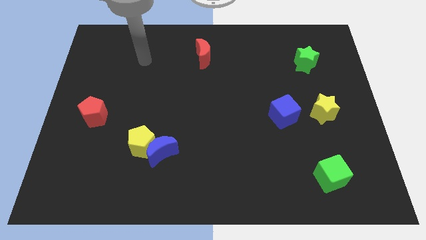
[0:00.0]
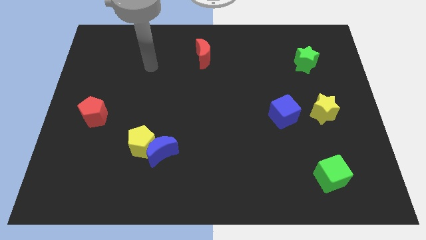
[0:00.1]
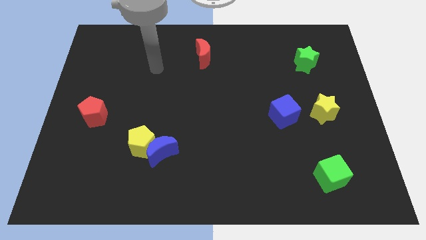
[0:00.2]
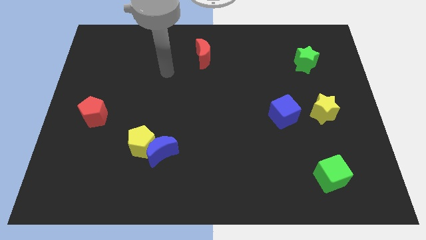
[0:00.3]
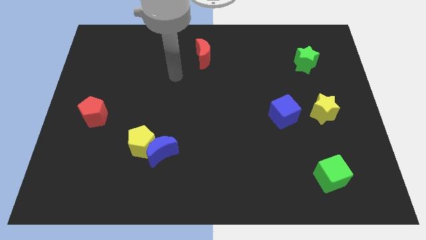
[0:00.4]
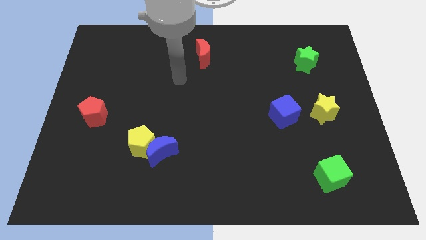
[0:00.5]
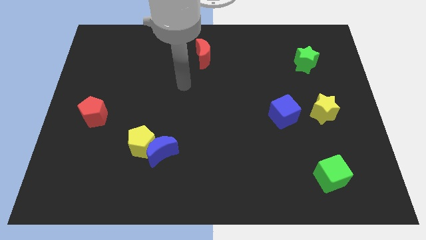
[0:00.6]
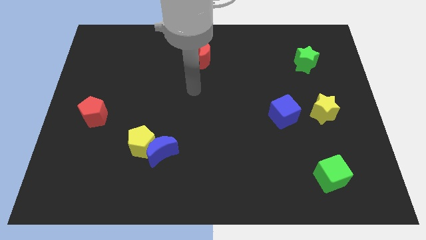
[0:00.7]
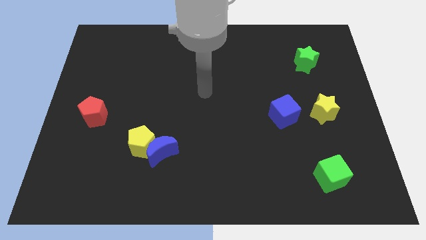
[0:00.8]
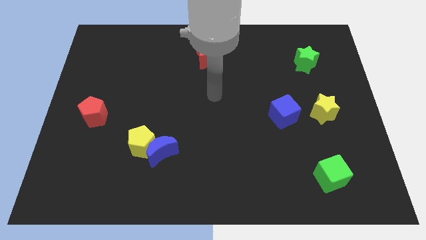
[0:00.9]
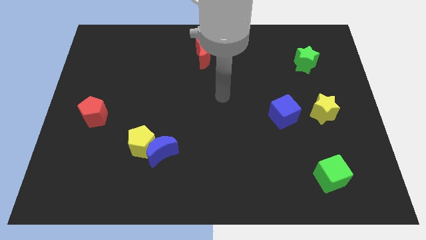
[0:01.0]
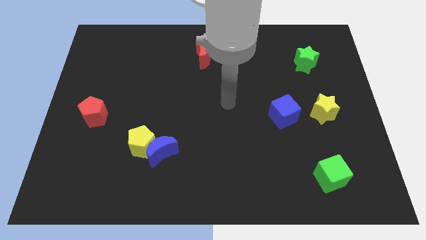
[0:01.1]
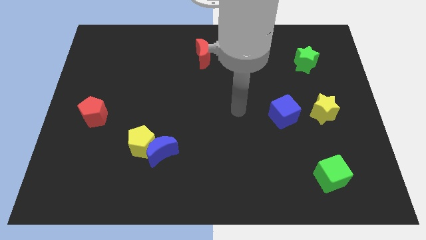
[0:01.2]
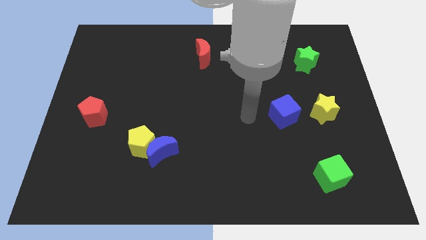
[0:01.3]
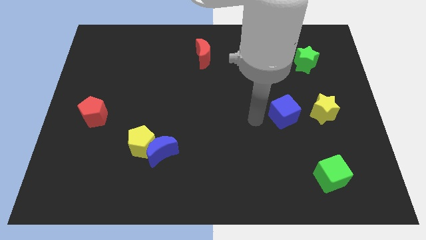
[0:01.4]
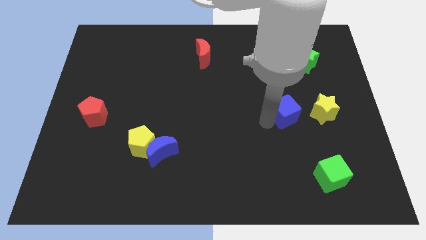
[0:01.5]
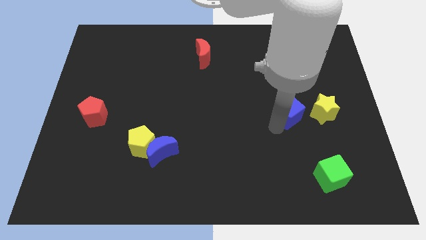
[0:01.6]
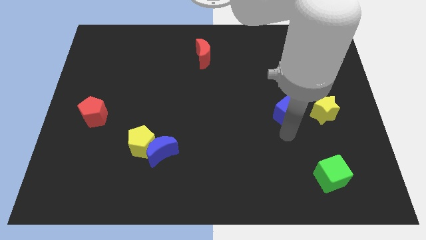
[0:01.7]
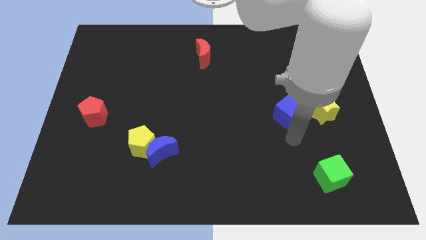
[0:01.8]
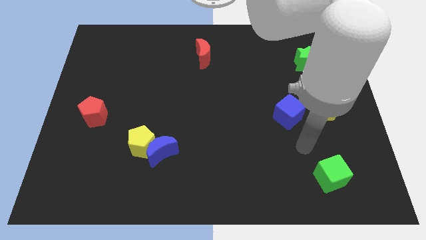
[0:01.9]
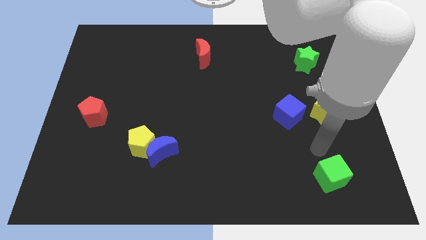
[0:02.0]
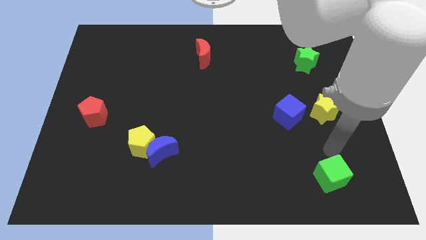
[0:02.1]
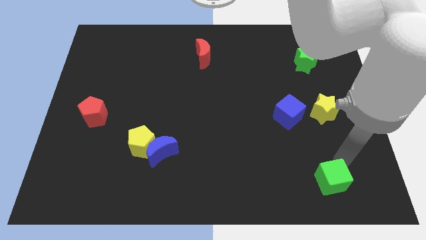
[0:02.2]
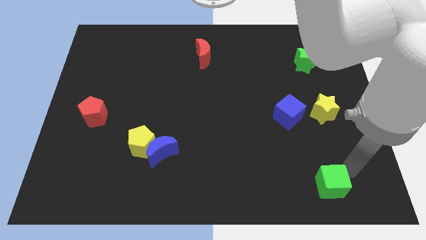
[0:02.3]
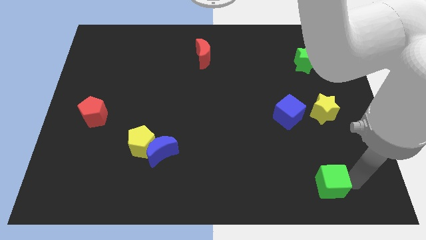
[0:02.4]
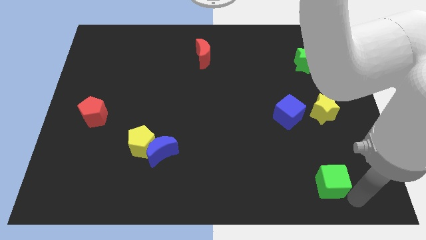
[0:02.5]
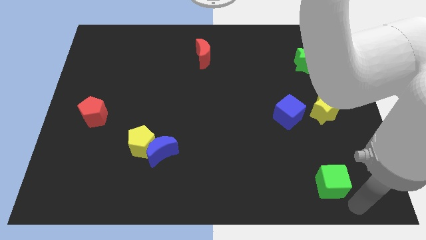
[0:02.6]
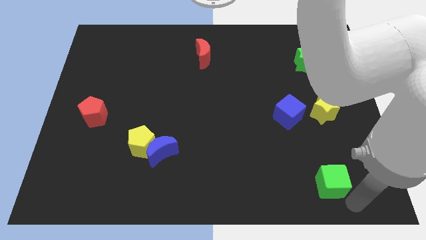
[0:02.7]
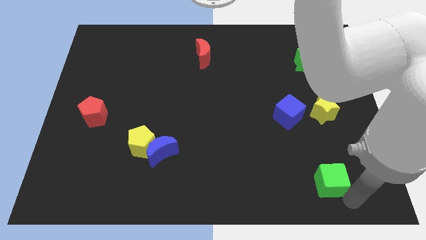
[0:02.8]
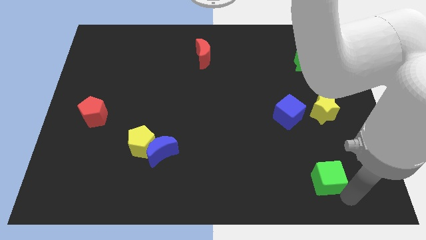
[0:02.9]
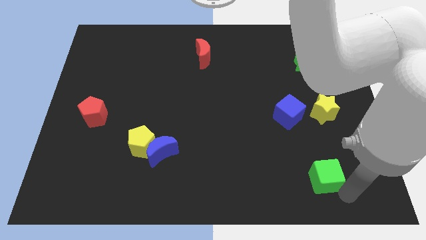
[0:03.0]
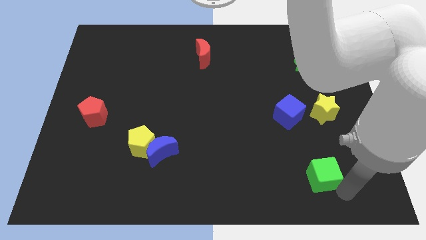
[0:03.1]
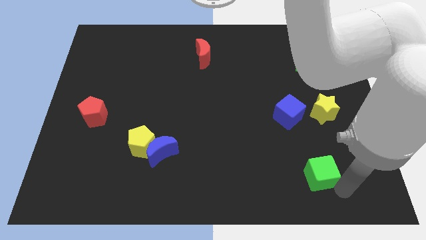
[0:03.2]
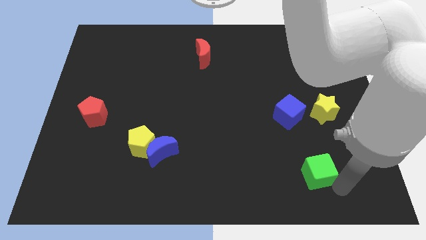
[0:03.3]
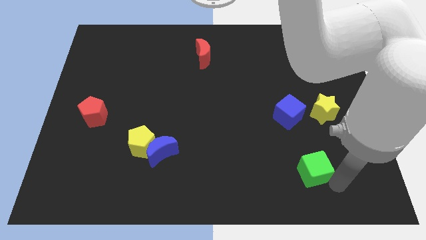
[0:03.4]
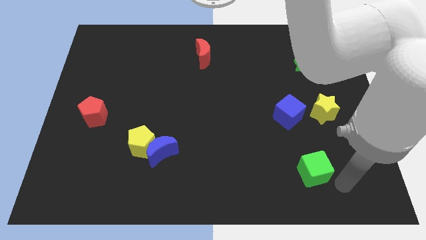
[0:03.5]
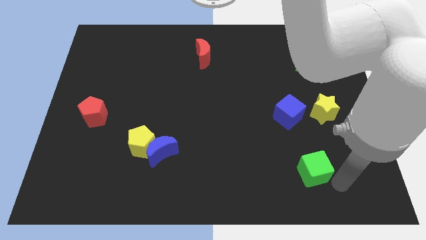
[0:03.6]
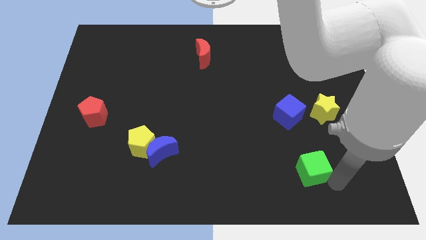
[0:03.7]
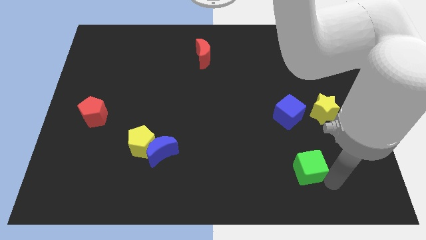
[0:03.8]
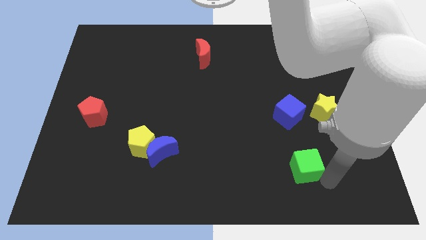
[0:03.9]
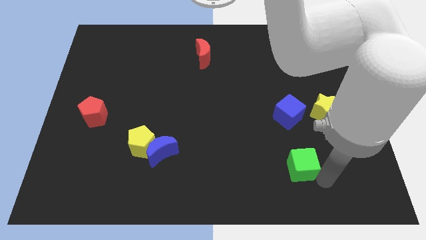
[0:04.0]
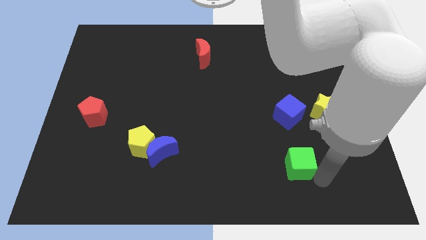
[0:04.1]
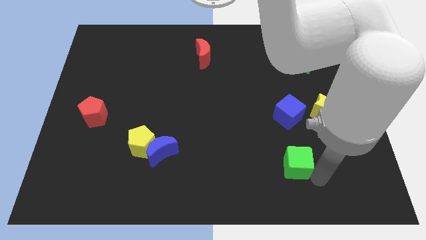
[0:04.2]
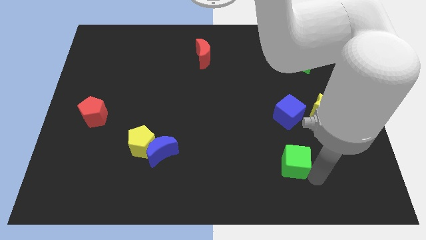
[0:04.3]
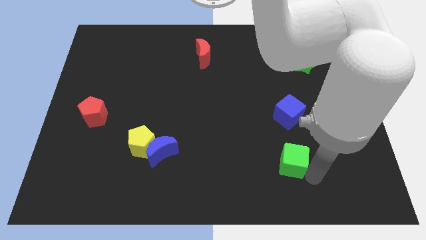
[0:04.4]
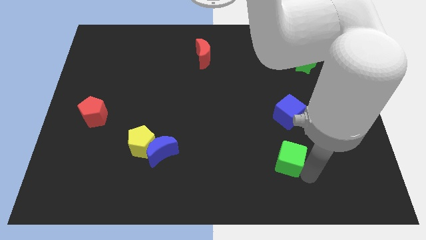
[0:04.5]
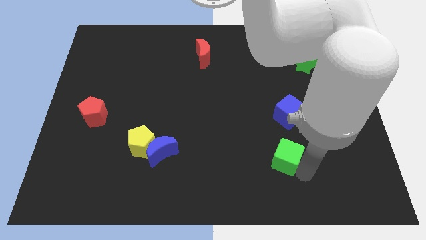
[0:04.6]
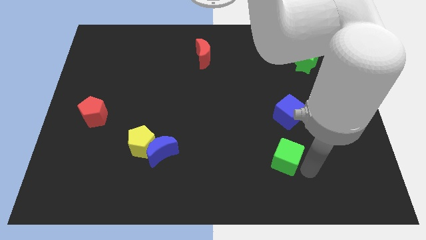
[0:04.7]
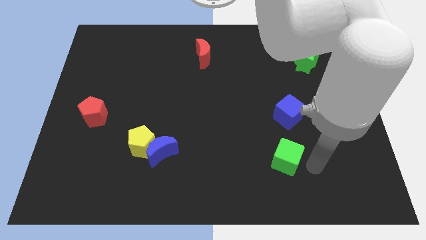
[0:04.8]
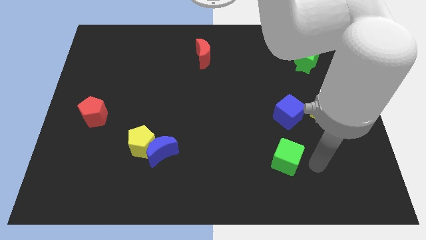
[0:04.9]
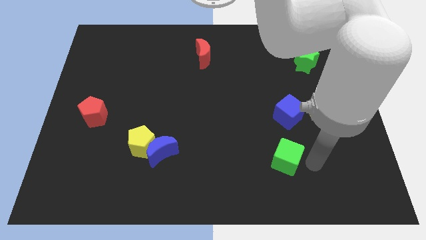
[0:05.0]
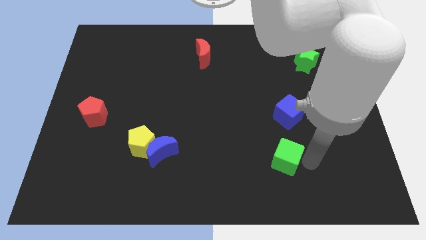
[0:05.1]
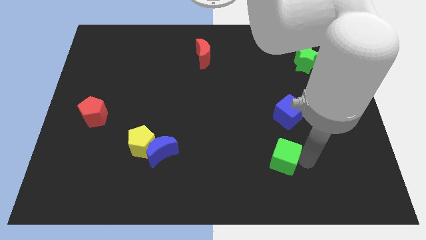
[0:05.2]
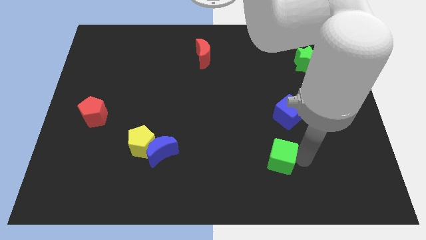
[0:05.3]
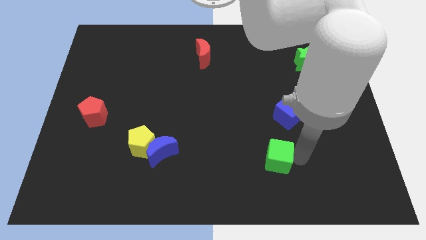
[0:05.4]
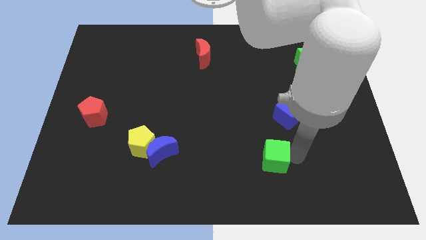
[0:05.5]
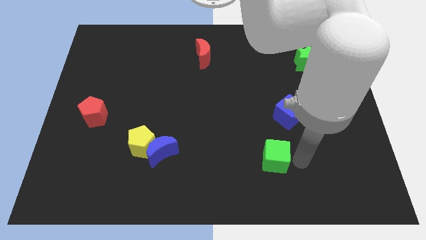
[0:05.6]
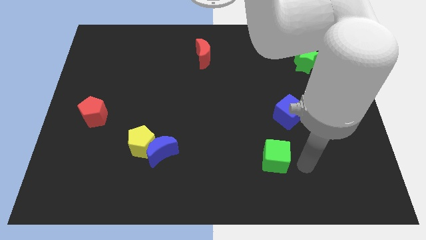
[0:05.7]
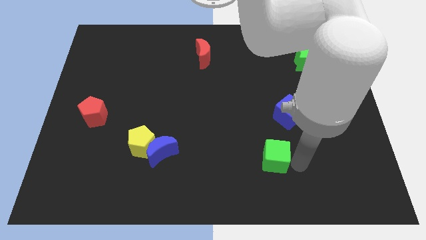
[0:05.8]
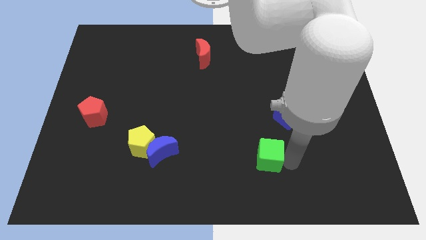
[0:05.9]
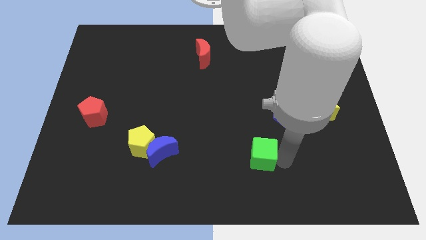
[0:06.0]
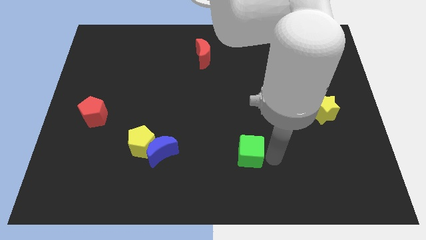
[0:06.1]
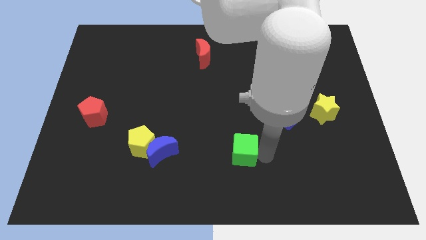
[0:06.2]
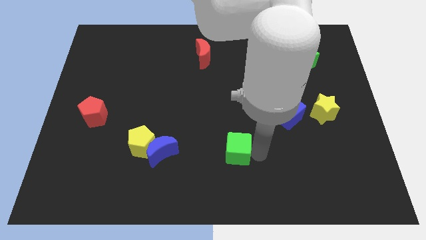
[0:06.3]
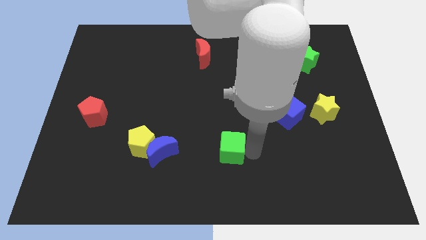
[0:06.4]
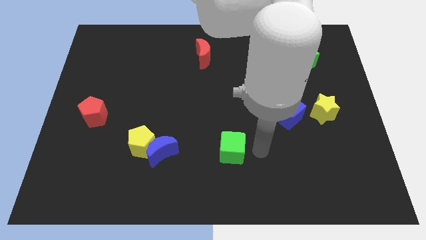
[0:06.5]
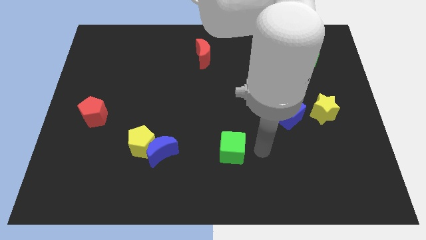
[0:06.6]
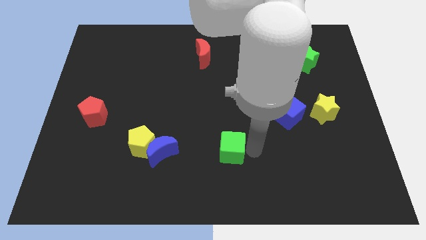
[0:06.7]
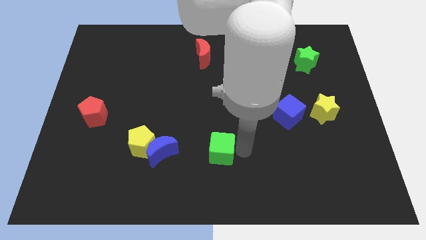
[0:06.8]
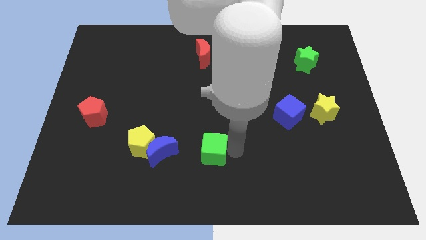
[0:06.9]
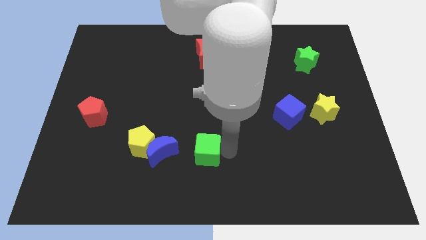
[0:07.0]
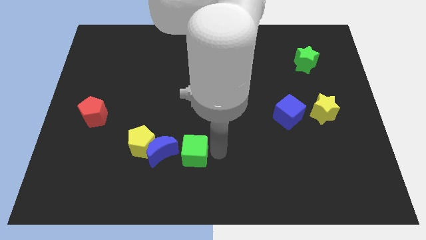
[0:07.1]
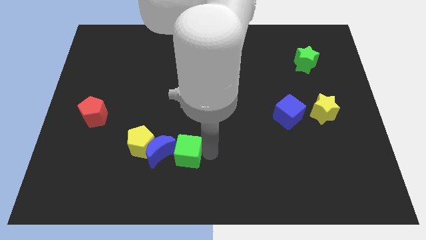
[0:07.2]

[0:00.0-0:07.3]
push the green cube to the blue moon
